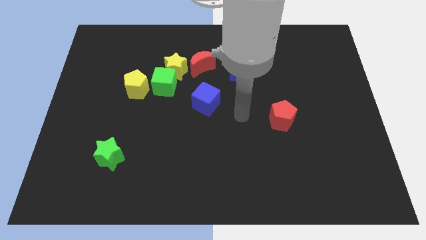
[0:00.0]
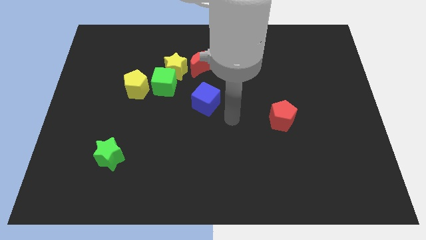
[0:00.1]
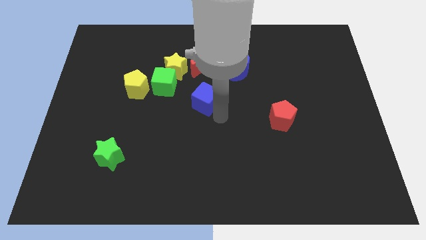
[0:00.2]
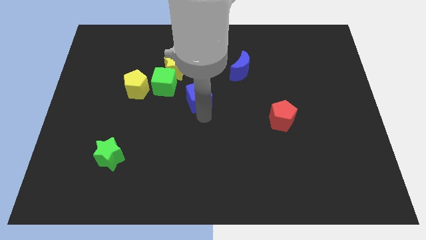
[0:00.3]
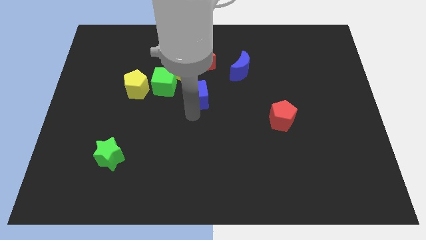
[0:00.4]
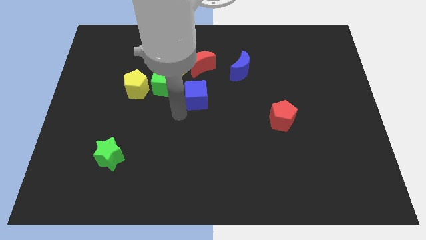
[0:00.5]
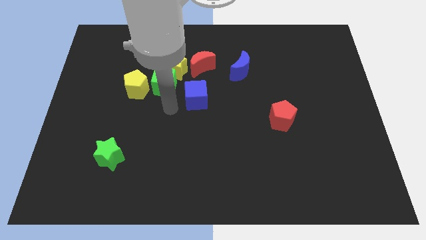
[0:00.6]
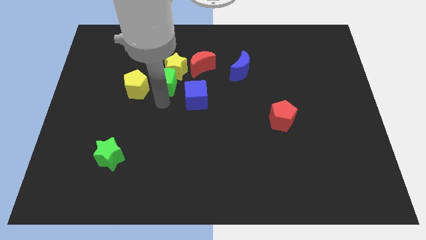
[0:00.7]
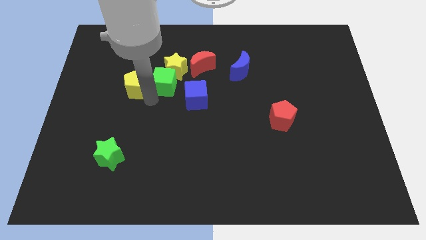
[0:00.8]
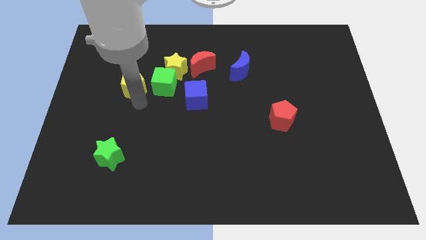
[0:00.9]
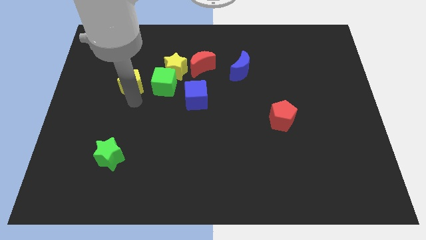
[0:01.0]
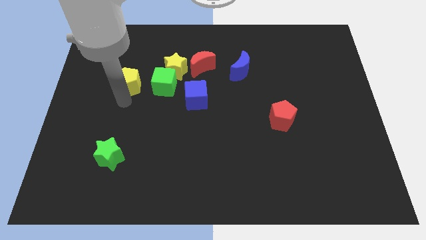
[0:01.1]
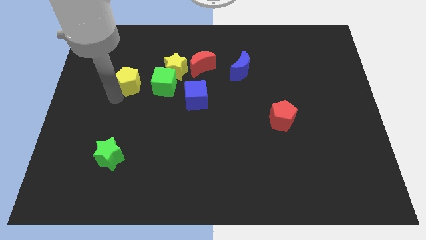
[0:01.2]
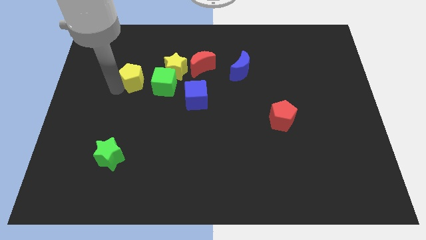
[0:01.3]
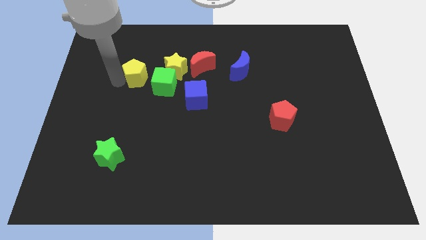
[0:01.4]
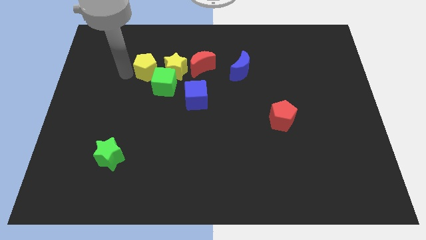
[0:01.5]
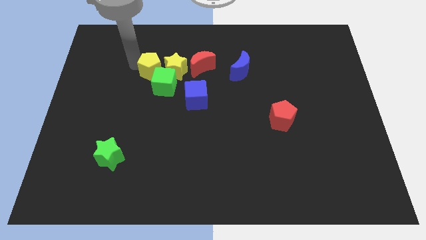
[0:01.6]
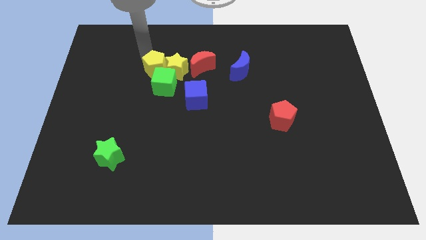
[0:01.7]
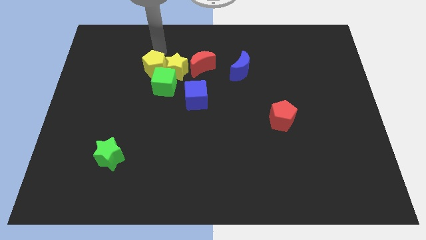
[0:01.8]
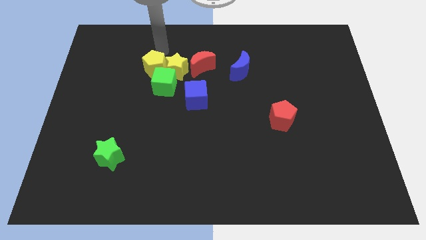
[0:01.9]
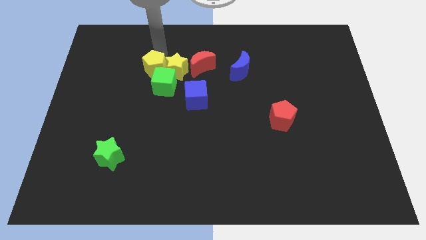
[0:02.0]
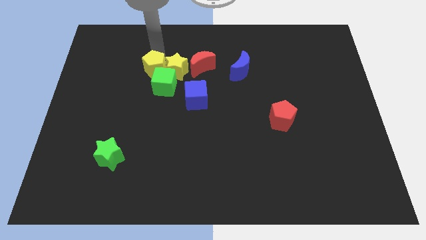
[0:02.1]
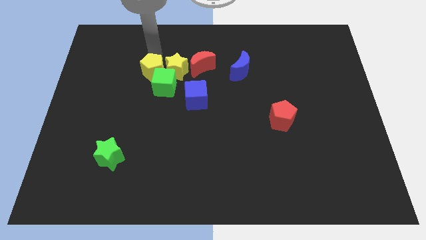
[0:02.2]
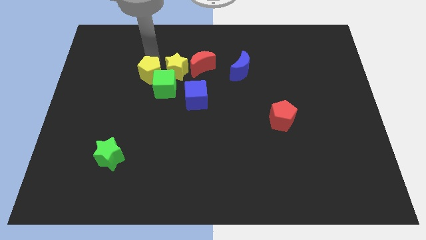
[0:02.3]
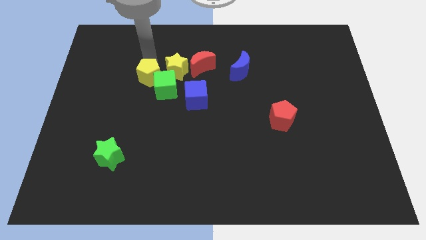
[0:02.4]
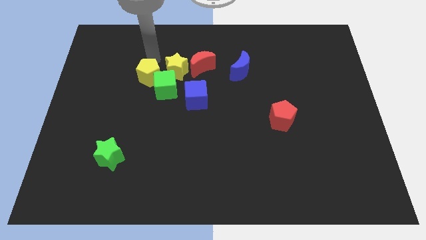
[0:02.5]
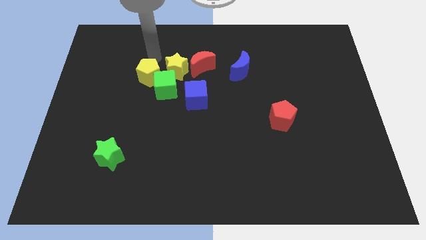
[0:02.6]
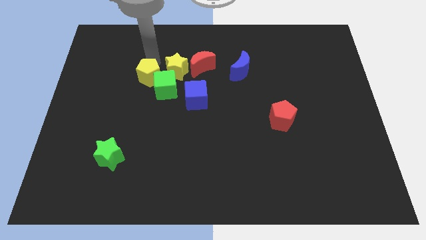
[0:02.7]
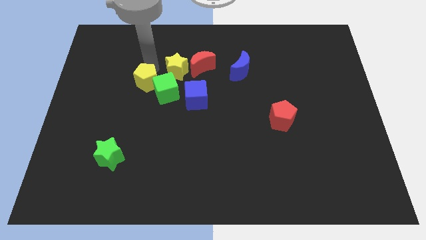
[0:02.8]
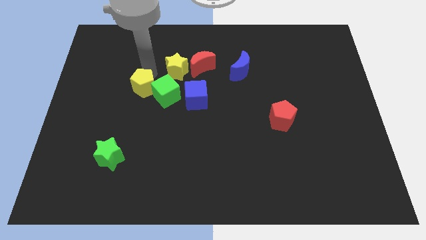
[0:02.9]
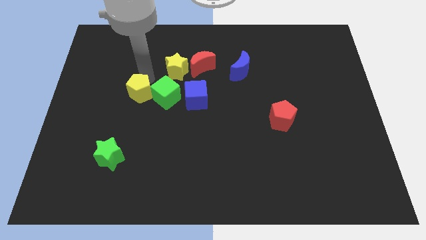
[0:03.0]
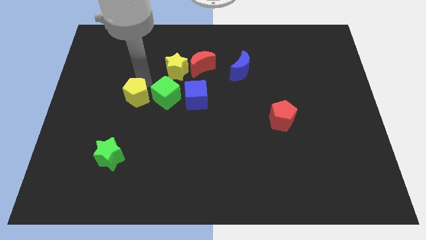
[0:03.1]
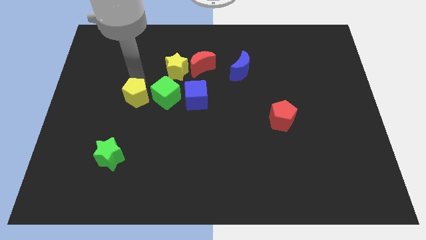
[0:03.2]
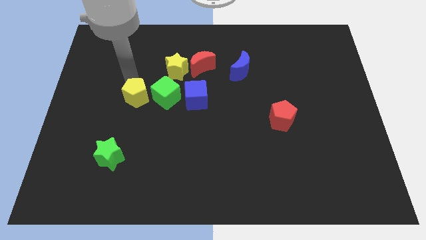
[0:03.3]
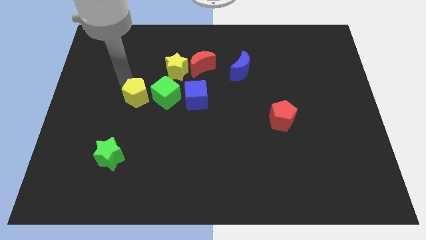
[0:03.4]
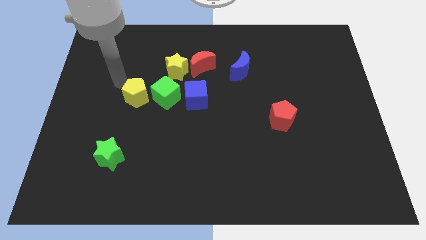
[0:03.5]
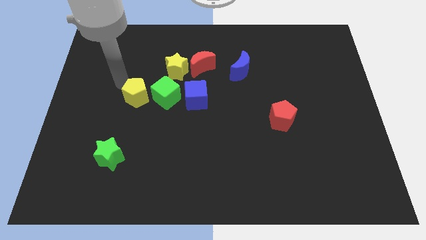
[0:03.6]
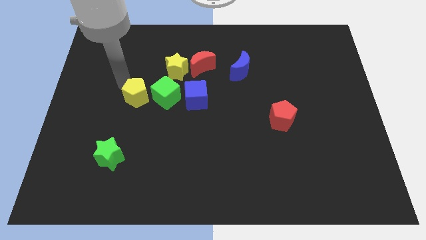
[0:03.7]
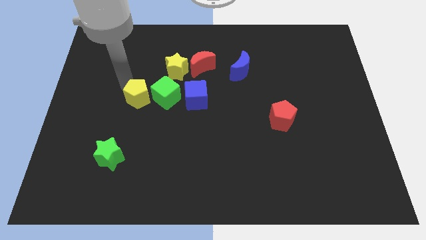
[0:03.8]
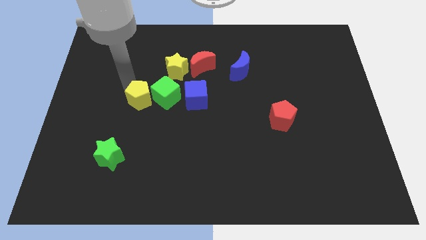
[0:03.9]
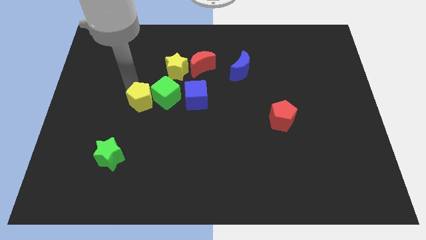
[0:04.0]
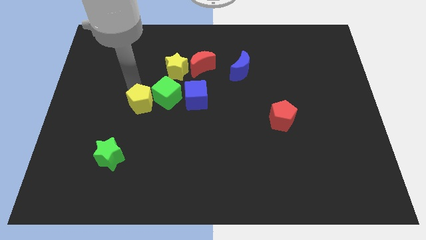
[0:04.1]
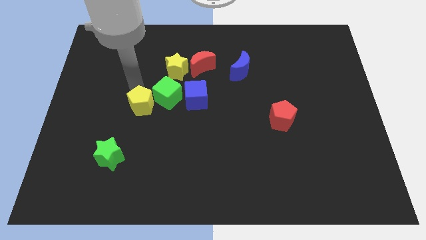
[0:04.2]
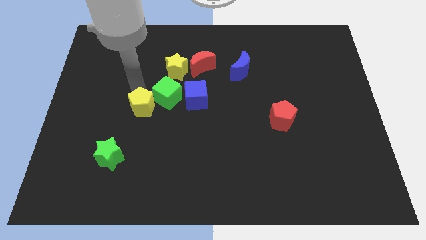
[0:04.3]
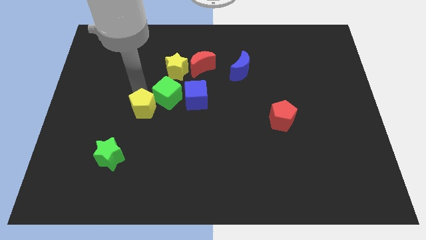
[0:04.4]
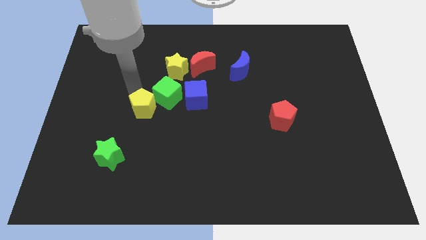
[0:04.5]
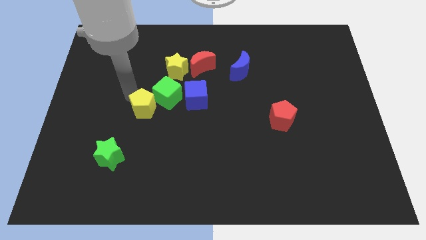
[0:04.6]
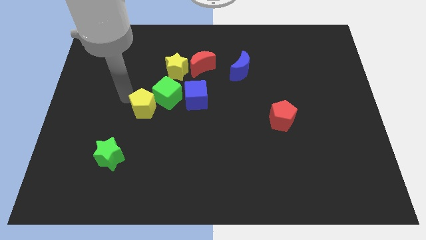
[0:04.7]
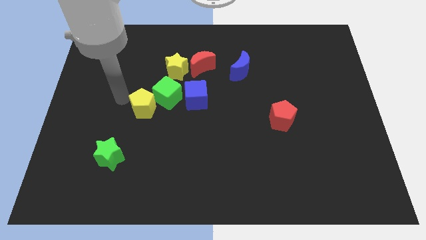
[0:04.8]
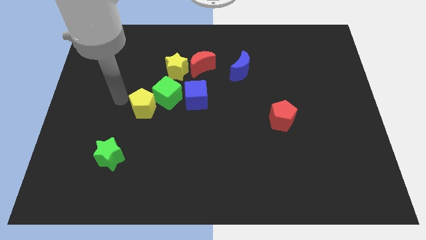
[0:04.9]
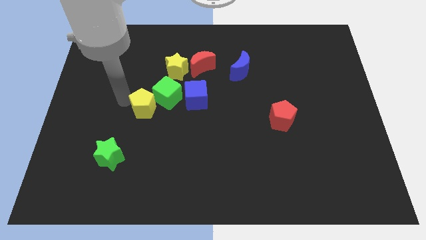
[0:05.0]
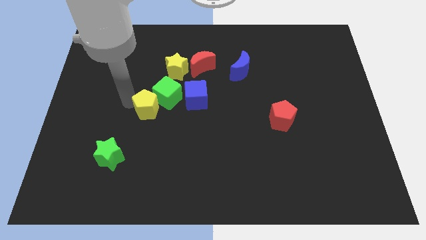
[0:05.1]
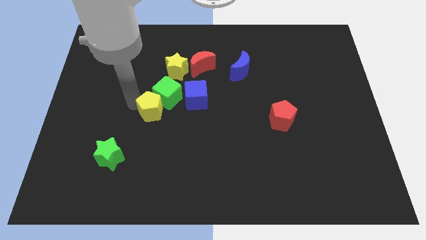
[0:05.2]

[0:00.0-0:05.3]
push the yellow pentagon somewhat downwards and then to the right

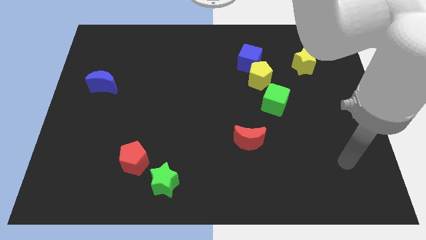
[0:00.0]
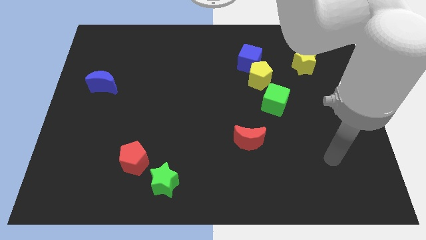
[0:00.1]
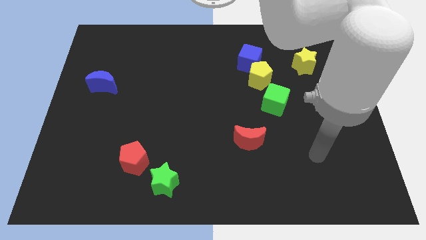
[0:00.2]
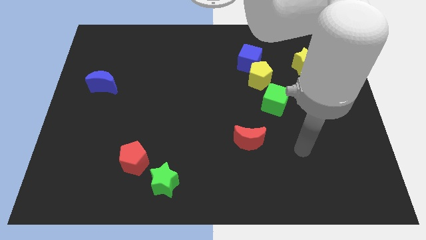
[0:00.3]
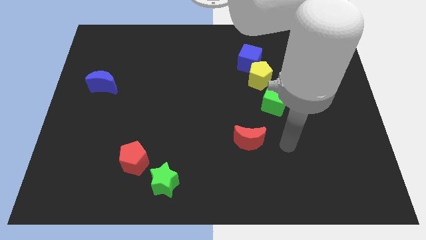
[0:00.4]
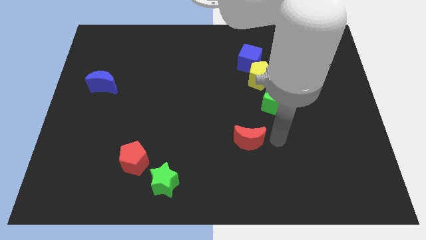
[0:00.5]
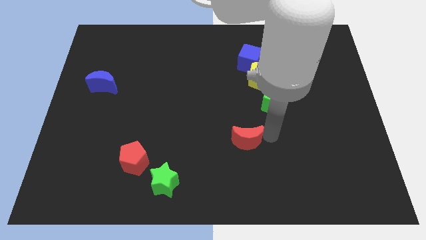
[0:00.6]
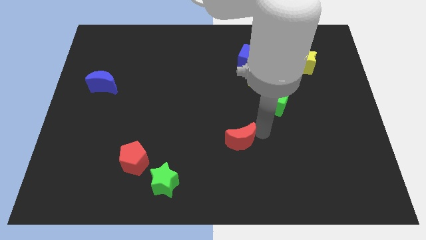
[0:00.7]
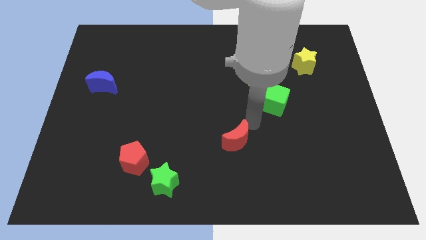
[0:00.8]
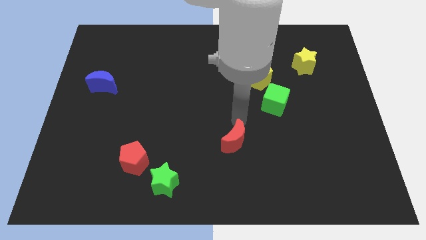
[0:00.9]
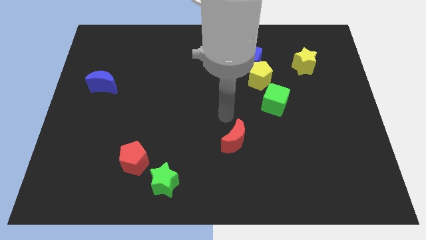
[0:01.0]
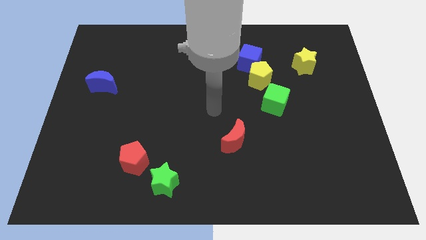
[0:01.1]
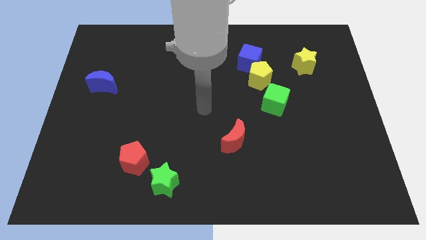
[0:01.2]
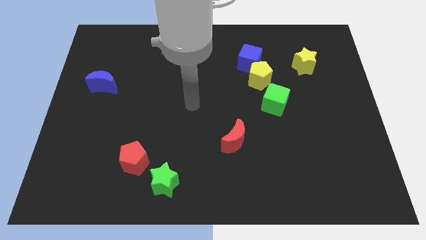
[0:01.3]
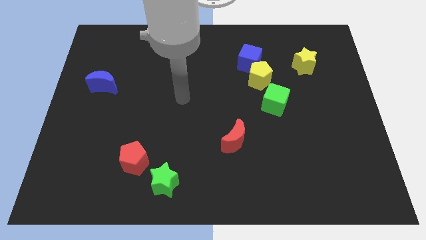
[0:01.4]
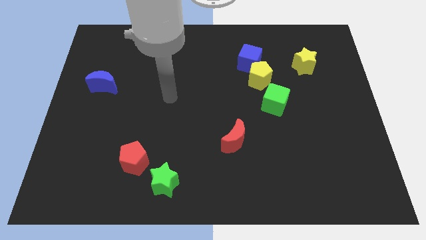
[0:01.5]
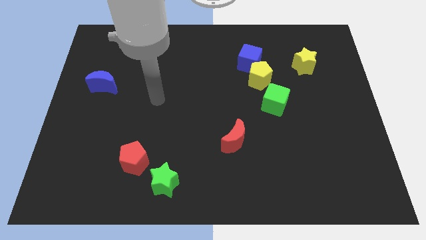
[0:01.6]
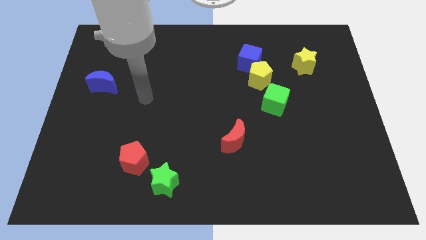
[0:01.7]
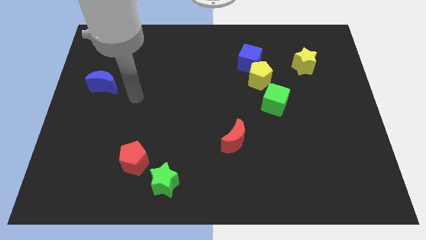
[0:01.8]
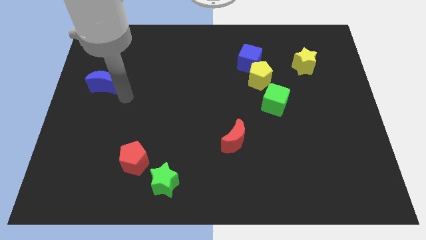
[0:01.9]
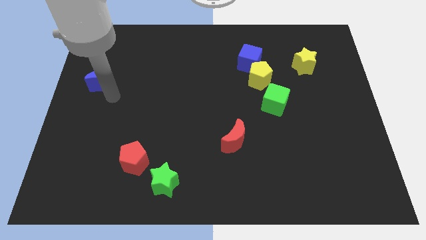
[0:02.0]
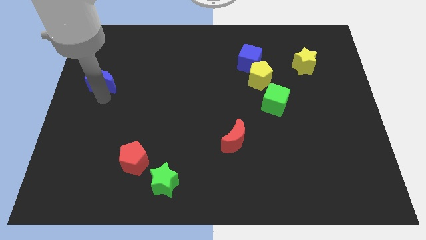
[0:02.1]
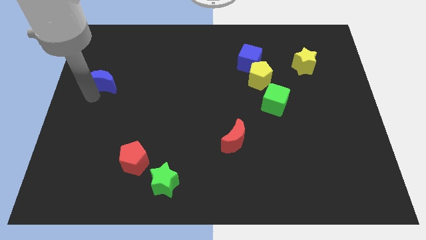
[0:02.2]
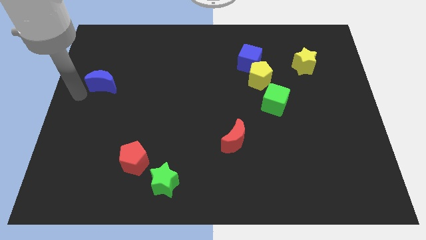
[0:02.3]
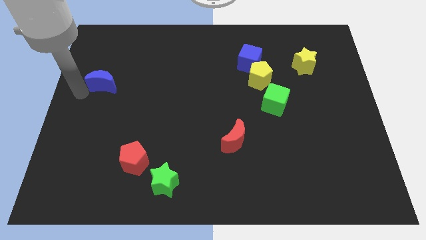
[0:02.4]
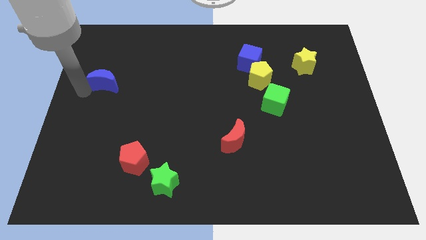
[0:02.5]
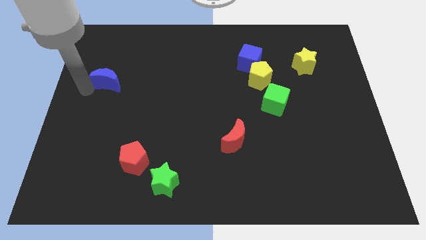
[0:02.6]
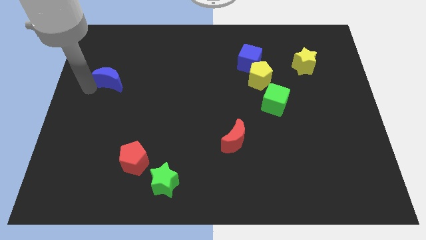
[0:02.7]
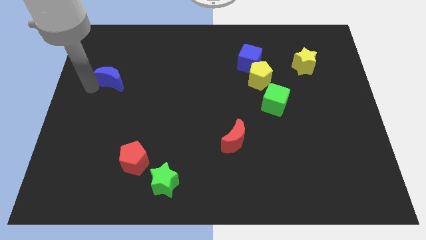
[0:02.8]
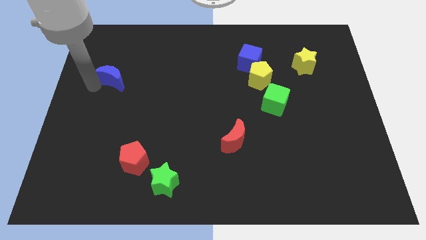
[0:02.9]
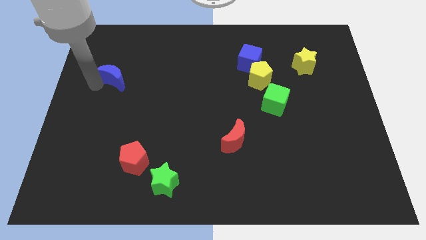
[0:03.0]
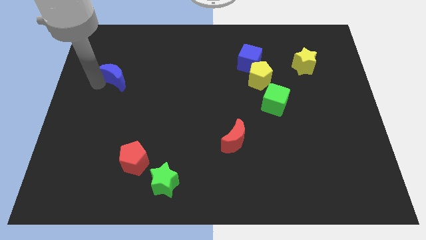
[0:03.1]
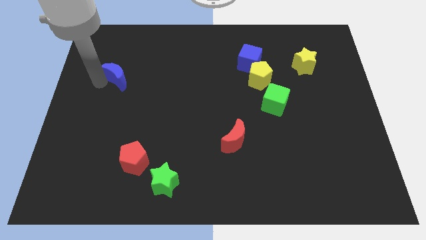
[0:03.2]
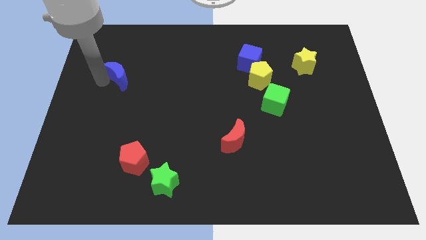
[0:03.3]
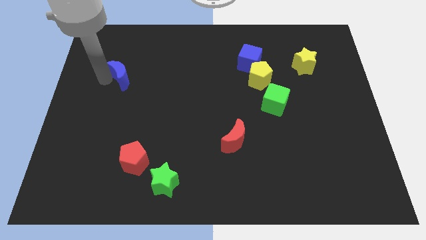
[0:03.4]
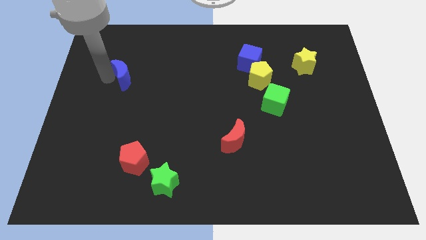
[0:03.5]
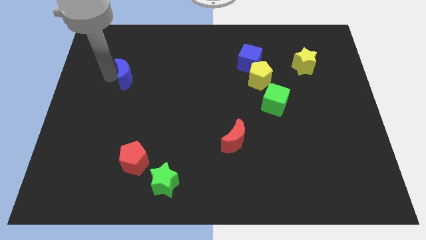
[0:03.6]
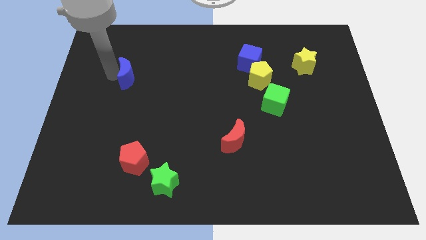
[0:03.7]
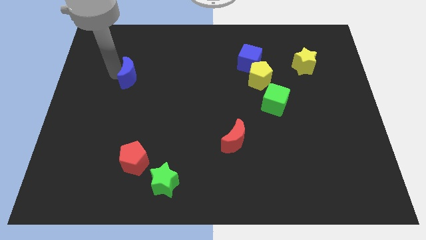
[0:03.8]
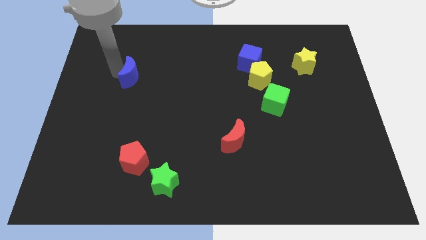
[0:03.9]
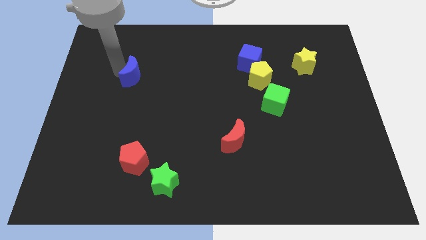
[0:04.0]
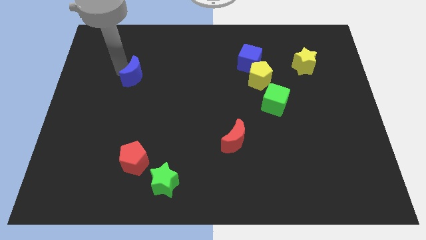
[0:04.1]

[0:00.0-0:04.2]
slightly slide the blue moon right
